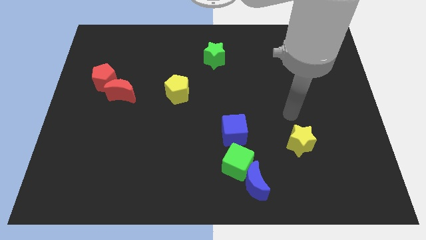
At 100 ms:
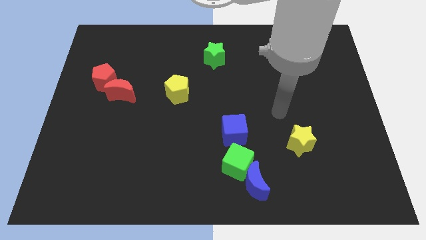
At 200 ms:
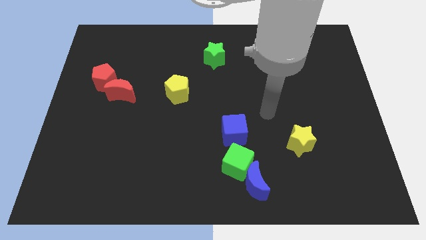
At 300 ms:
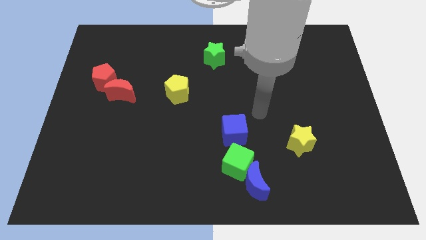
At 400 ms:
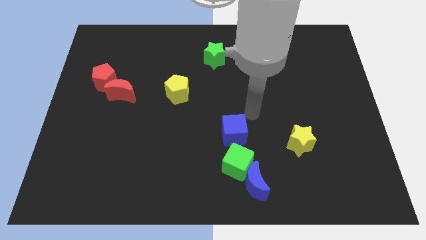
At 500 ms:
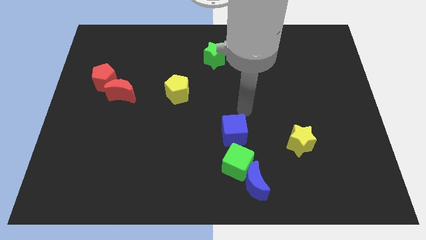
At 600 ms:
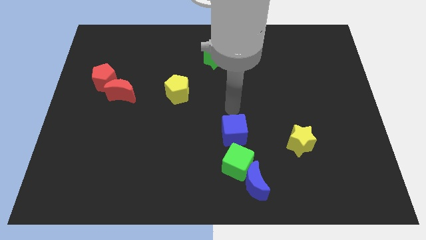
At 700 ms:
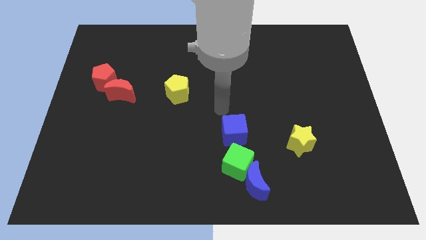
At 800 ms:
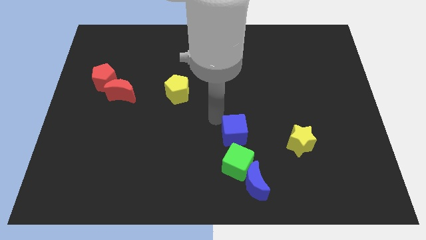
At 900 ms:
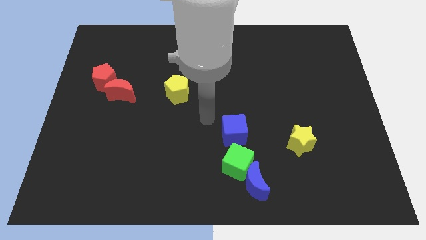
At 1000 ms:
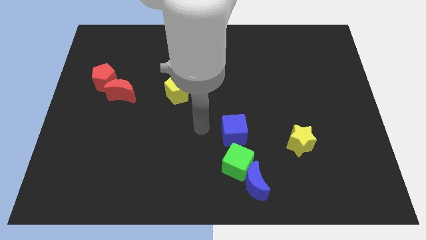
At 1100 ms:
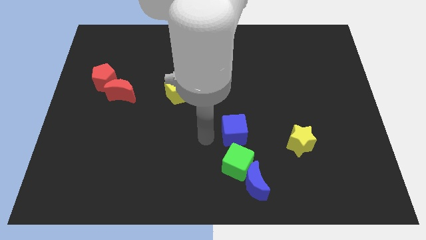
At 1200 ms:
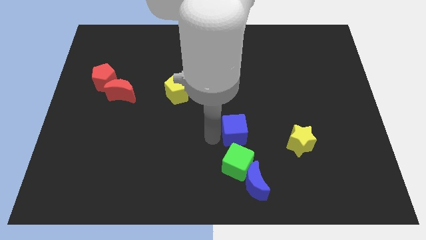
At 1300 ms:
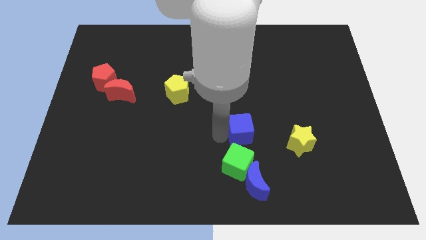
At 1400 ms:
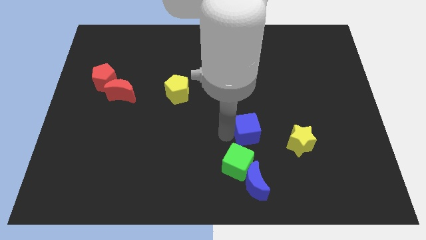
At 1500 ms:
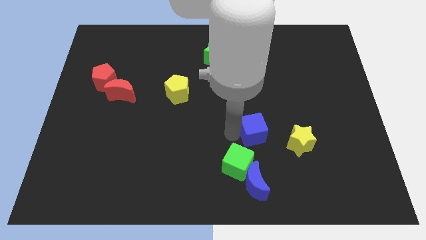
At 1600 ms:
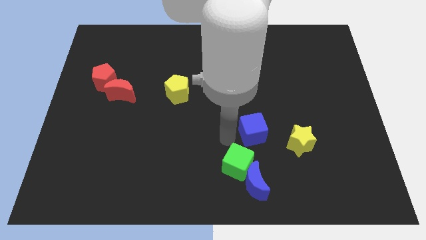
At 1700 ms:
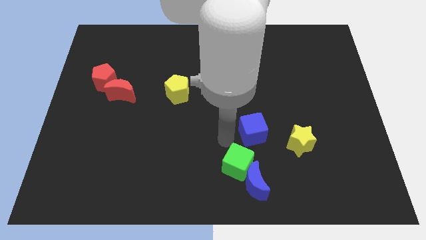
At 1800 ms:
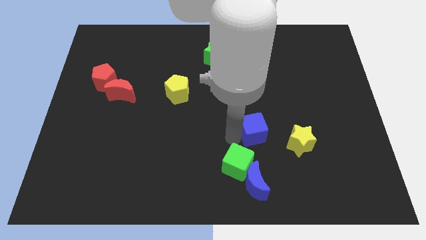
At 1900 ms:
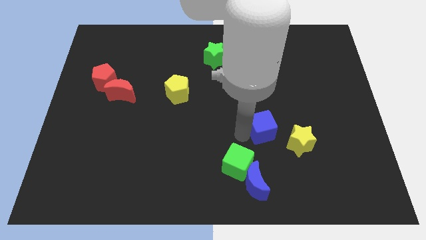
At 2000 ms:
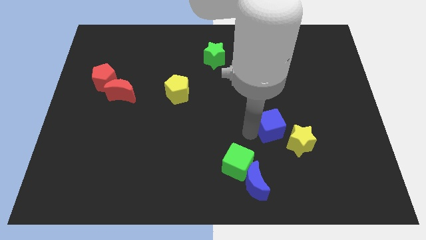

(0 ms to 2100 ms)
slide the blue cube a little to the right

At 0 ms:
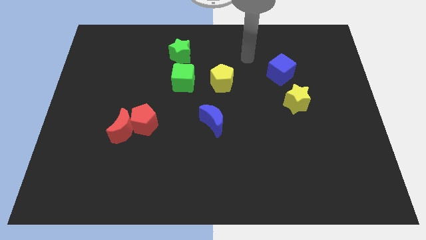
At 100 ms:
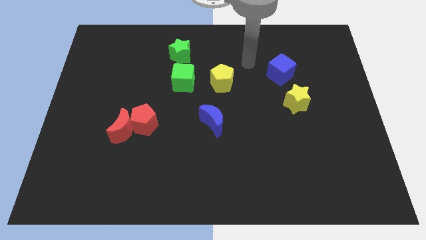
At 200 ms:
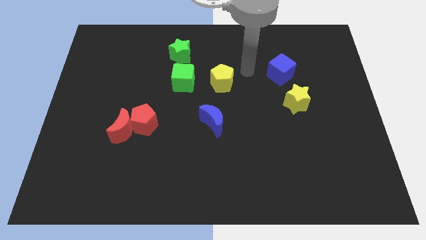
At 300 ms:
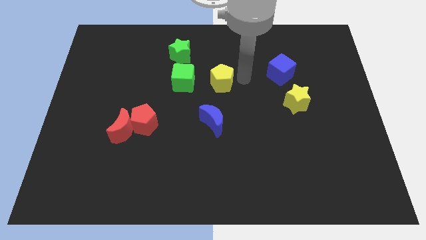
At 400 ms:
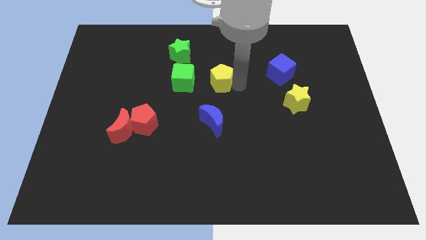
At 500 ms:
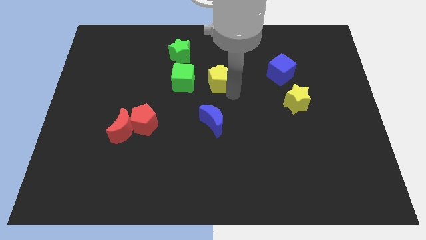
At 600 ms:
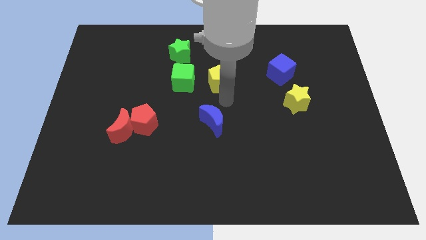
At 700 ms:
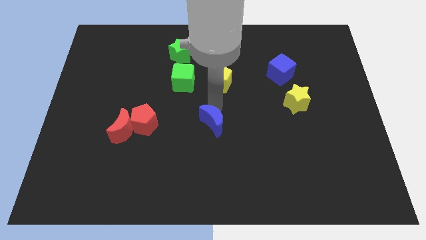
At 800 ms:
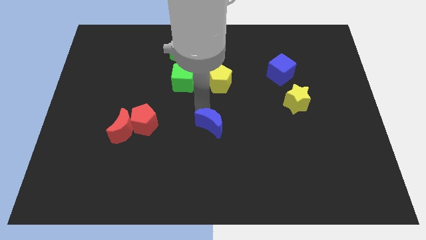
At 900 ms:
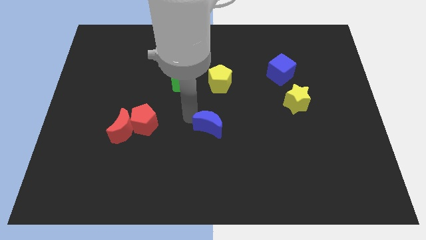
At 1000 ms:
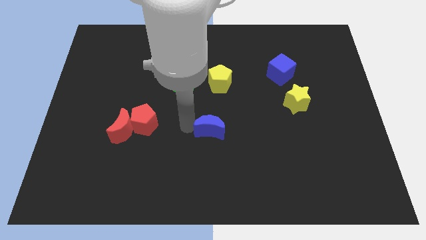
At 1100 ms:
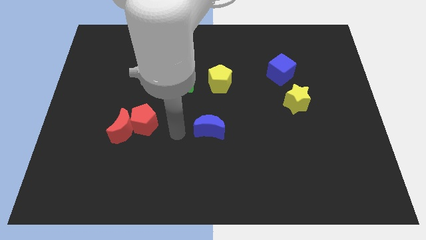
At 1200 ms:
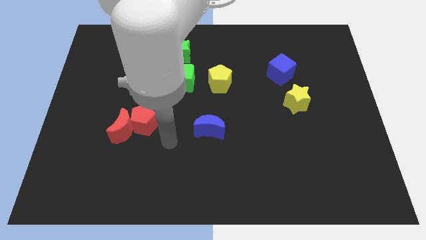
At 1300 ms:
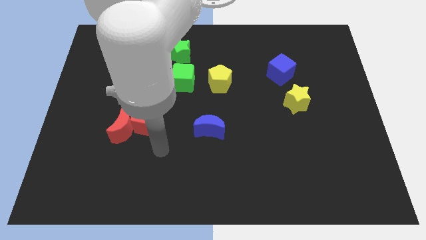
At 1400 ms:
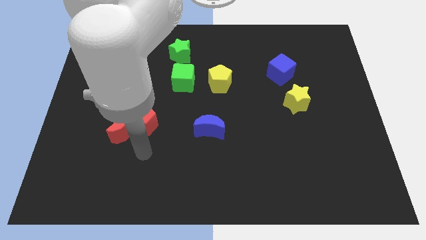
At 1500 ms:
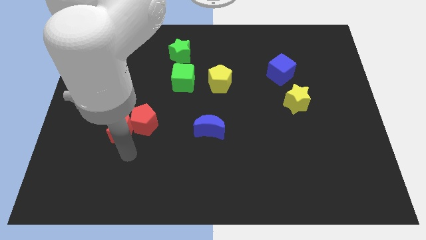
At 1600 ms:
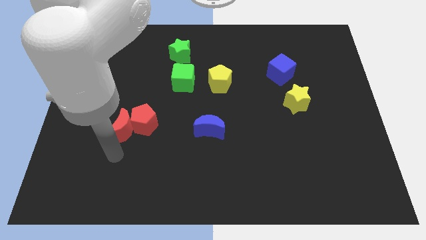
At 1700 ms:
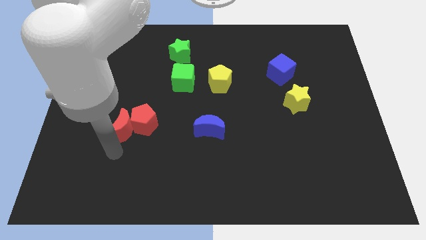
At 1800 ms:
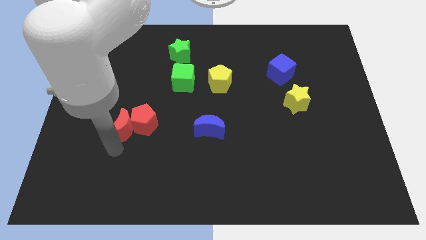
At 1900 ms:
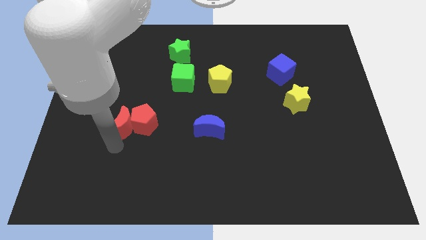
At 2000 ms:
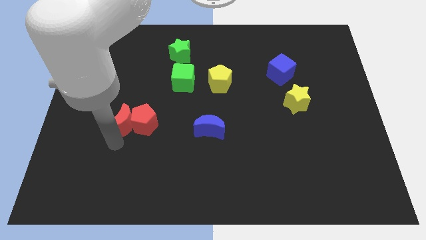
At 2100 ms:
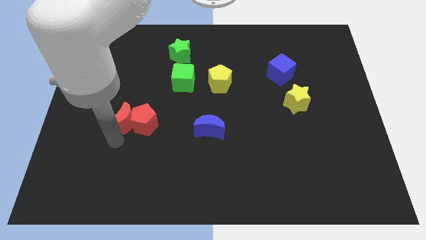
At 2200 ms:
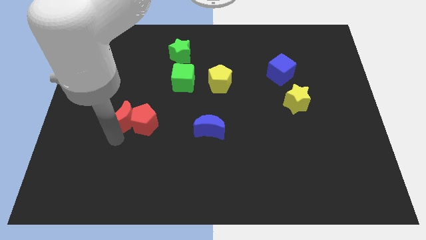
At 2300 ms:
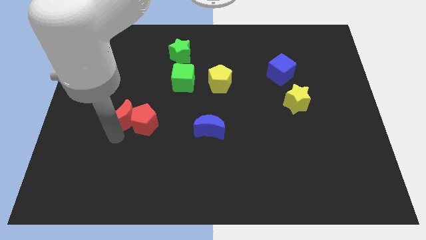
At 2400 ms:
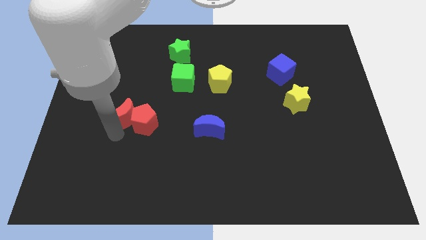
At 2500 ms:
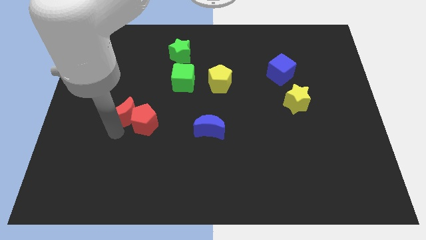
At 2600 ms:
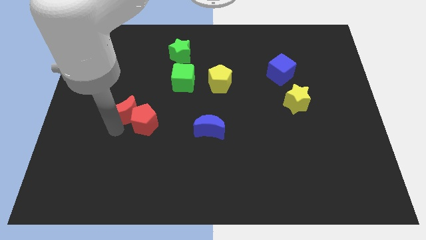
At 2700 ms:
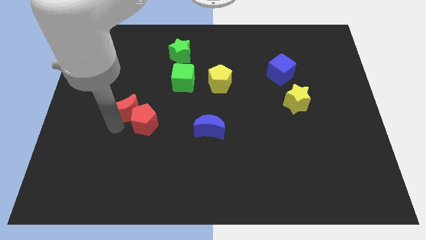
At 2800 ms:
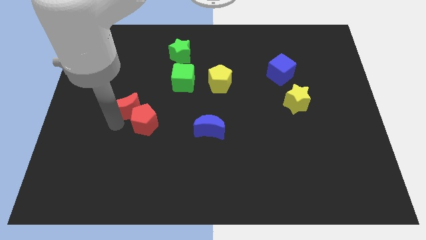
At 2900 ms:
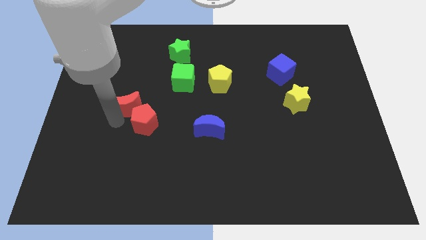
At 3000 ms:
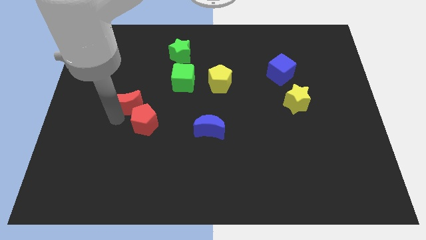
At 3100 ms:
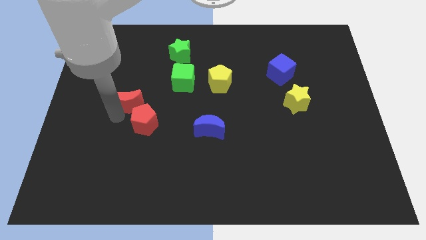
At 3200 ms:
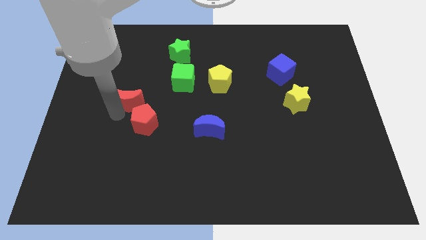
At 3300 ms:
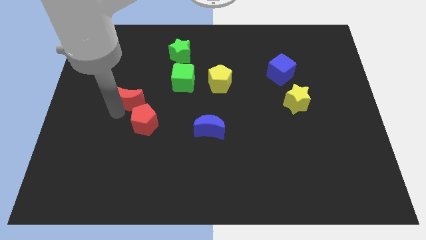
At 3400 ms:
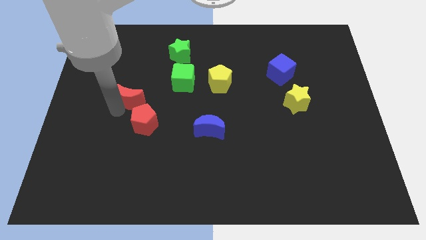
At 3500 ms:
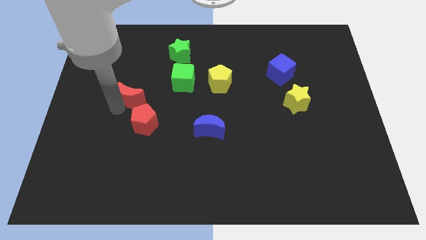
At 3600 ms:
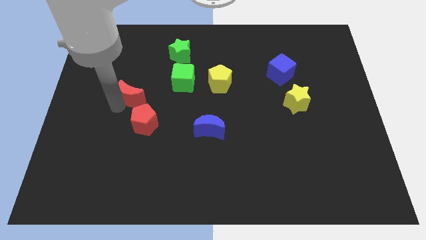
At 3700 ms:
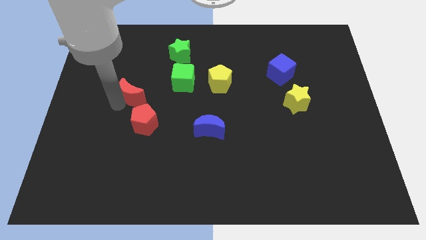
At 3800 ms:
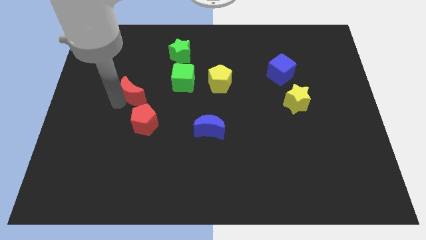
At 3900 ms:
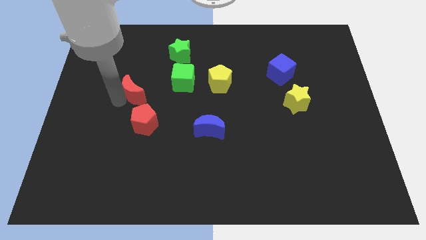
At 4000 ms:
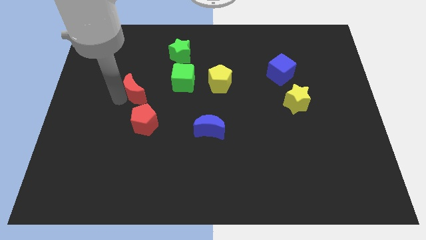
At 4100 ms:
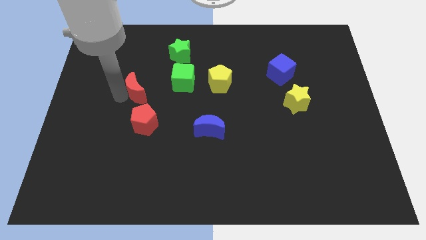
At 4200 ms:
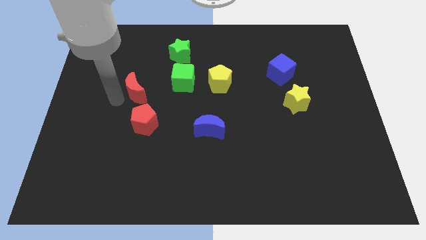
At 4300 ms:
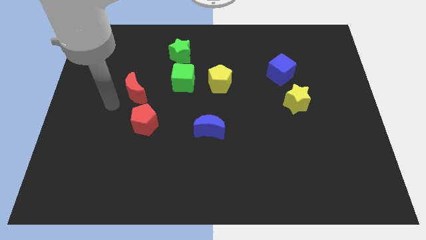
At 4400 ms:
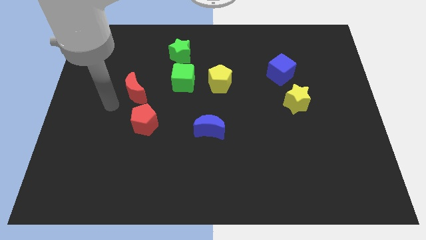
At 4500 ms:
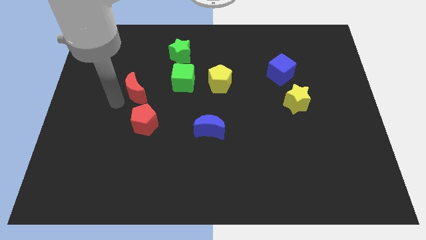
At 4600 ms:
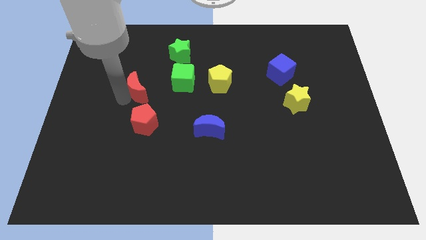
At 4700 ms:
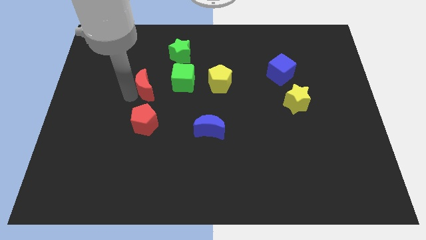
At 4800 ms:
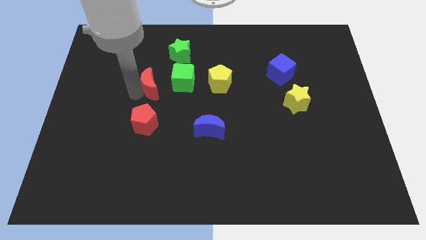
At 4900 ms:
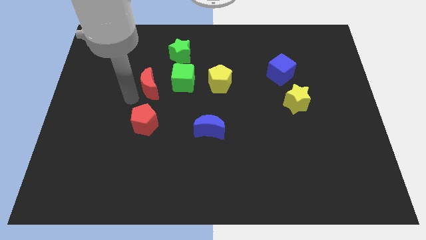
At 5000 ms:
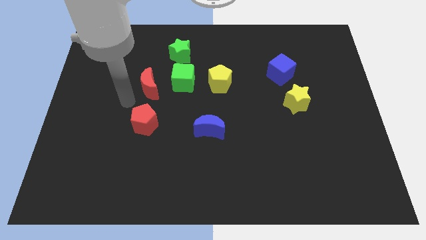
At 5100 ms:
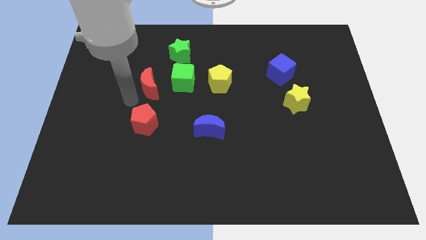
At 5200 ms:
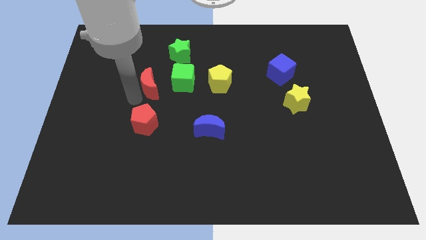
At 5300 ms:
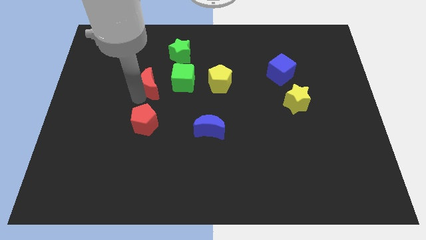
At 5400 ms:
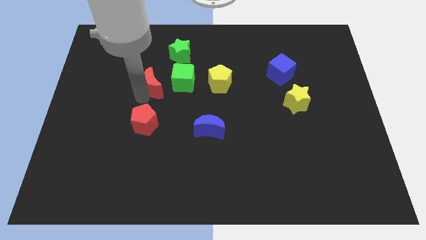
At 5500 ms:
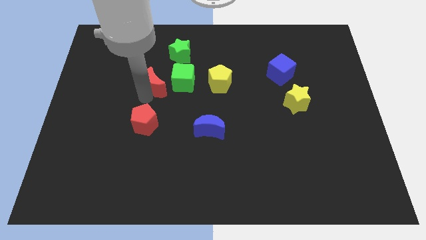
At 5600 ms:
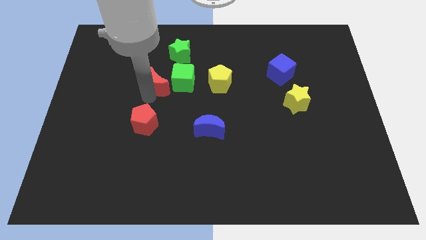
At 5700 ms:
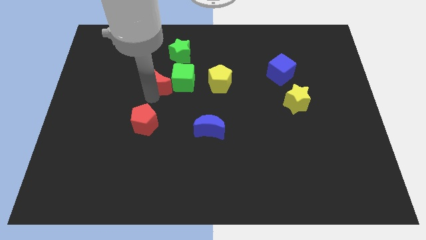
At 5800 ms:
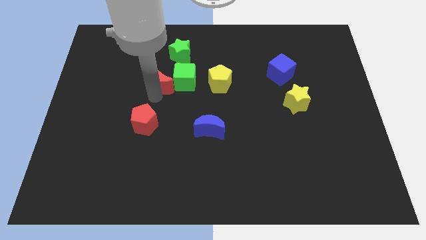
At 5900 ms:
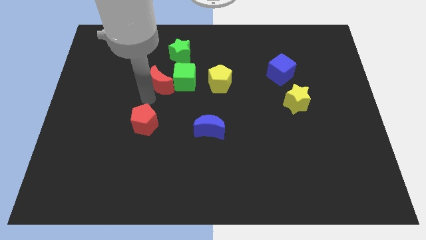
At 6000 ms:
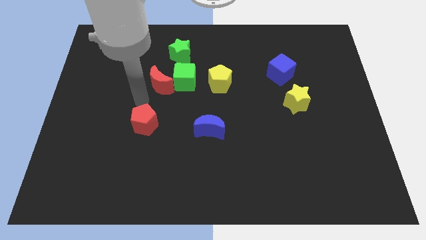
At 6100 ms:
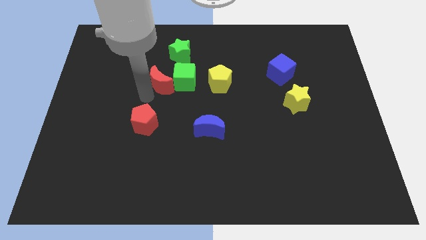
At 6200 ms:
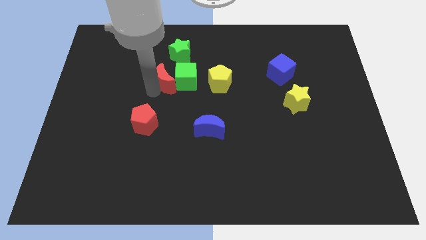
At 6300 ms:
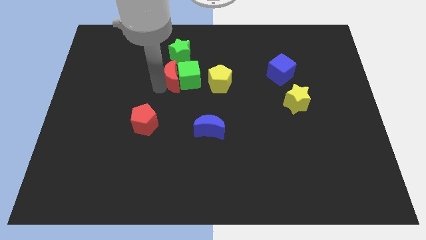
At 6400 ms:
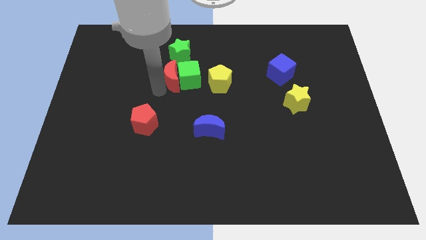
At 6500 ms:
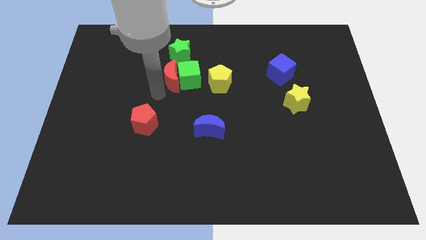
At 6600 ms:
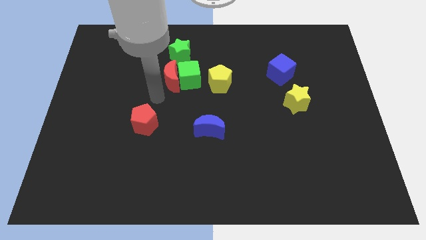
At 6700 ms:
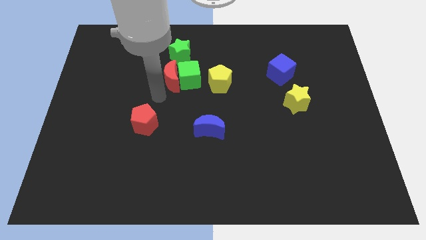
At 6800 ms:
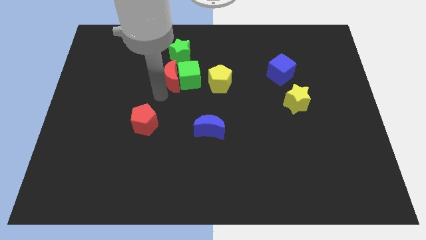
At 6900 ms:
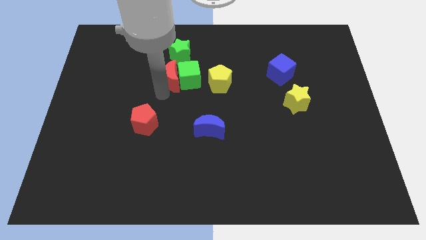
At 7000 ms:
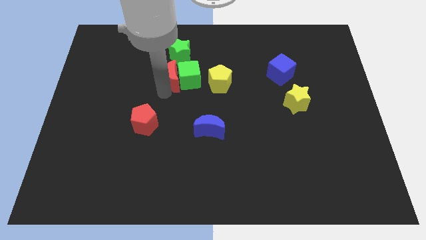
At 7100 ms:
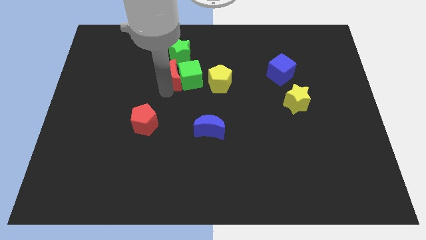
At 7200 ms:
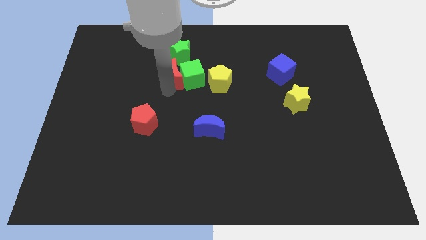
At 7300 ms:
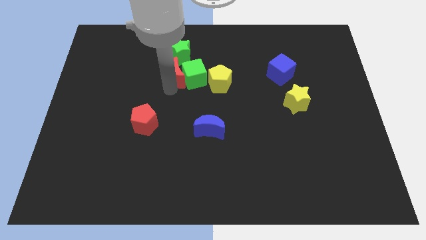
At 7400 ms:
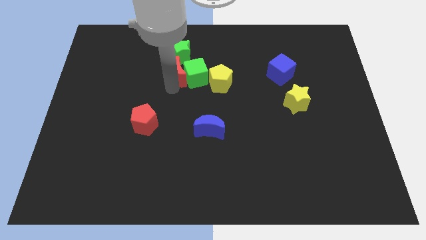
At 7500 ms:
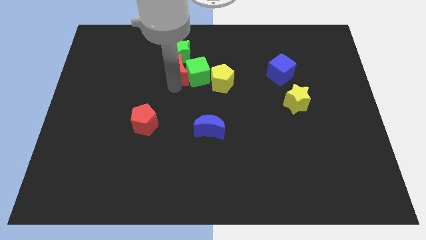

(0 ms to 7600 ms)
slide the red moon upwards and to the right
